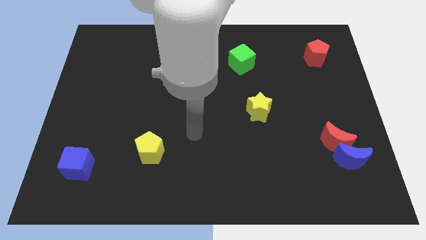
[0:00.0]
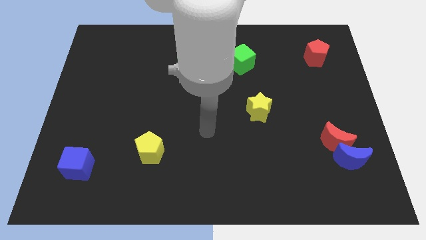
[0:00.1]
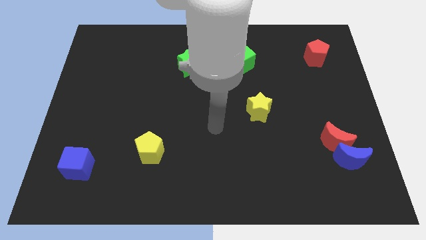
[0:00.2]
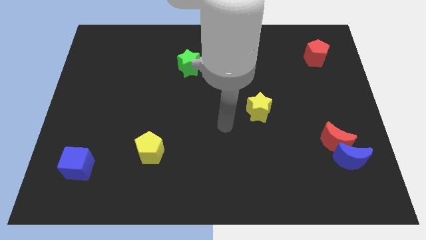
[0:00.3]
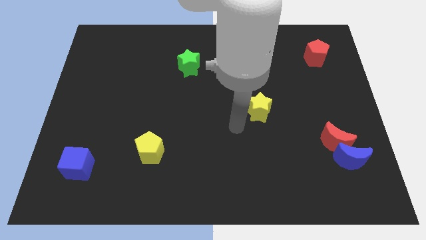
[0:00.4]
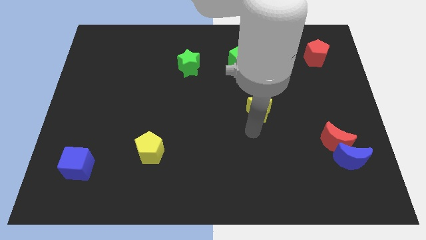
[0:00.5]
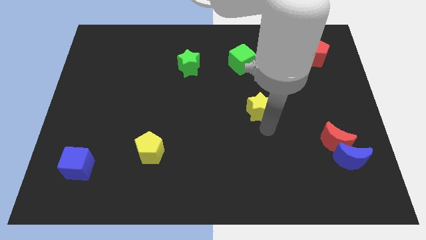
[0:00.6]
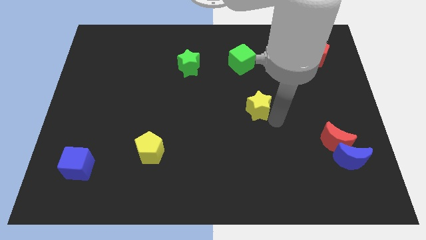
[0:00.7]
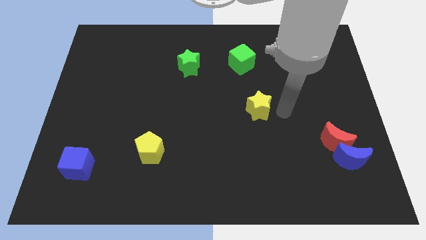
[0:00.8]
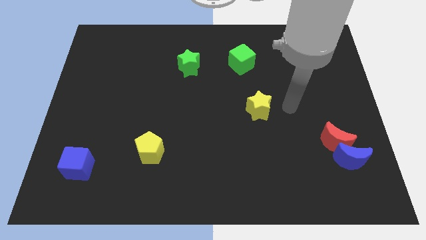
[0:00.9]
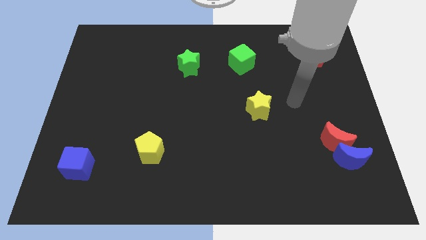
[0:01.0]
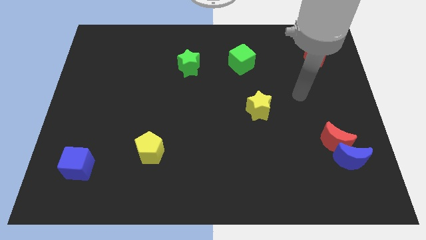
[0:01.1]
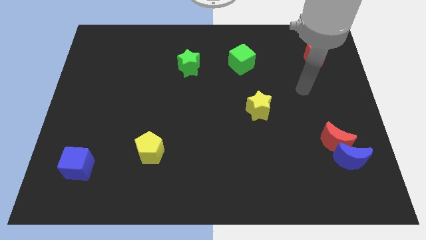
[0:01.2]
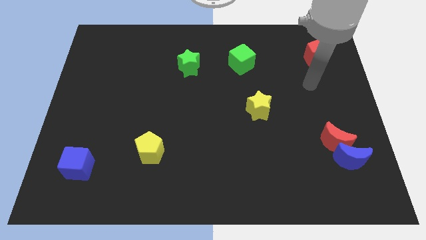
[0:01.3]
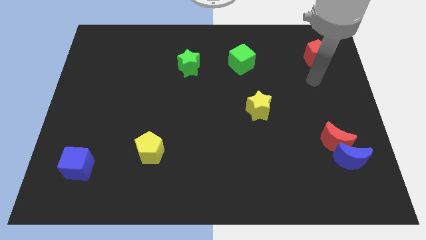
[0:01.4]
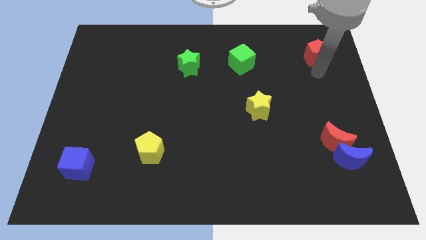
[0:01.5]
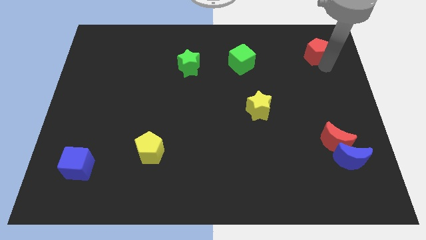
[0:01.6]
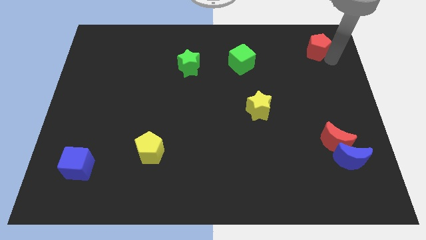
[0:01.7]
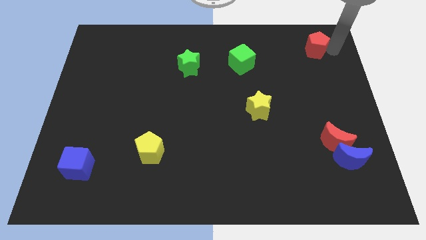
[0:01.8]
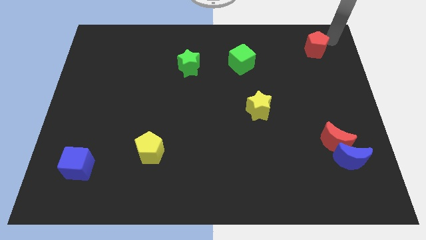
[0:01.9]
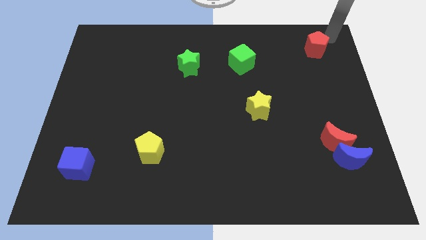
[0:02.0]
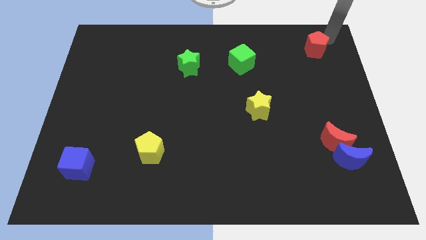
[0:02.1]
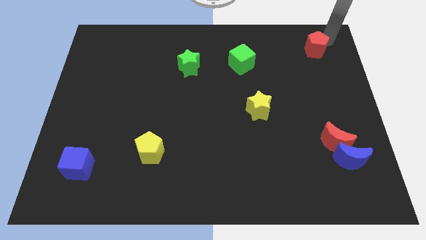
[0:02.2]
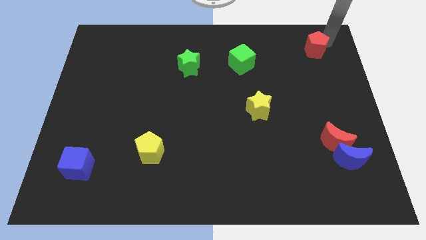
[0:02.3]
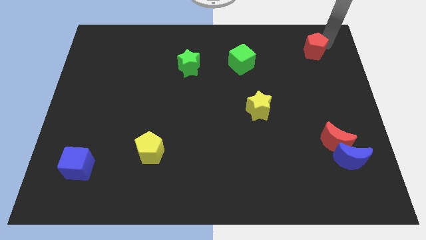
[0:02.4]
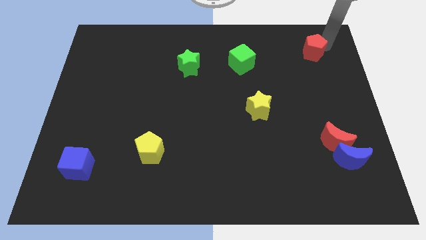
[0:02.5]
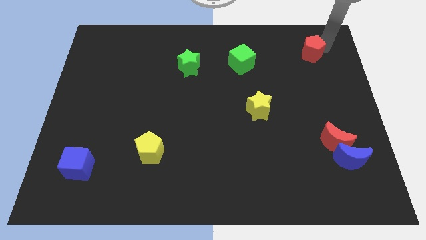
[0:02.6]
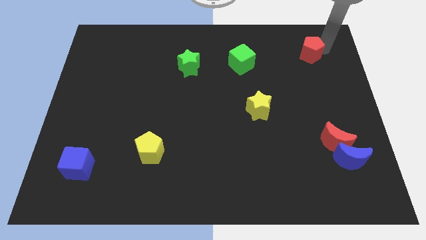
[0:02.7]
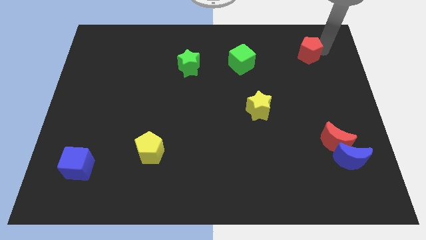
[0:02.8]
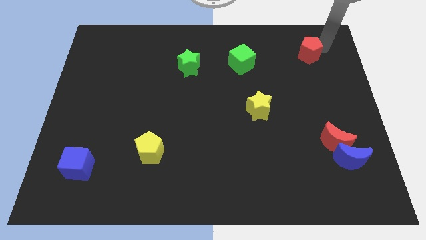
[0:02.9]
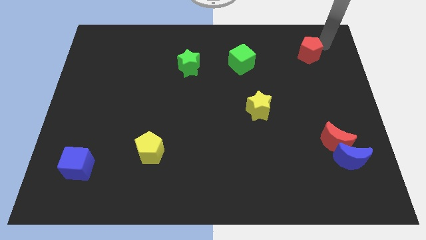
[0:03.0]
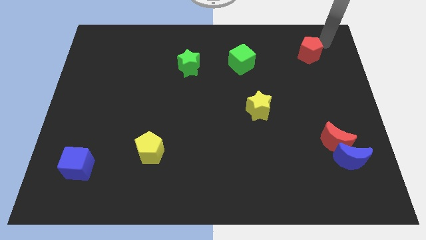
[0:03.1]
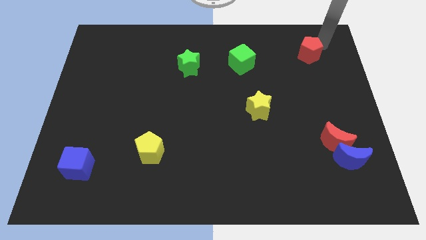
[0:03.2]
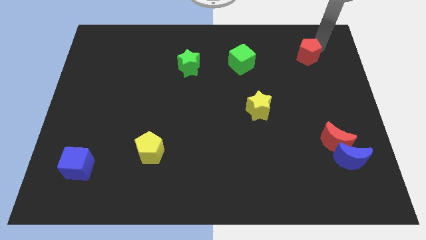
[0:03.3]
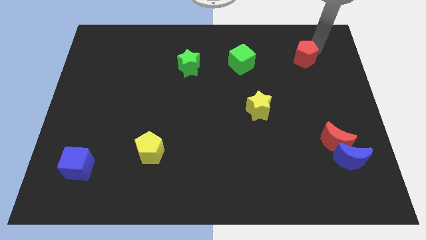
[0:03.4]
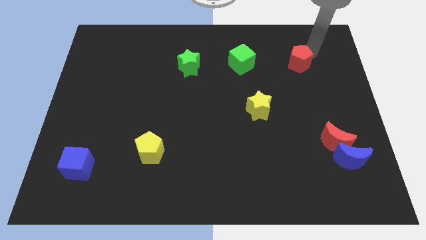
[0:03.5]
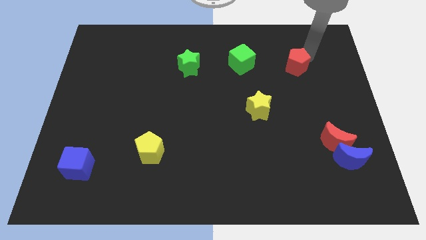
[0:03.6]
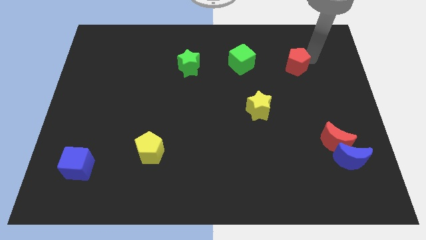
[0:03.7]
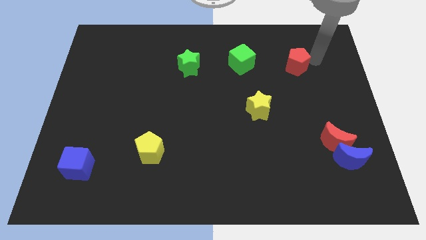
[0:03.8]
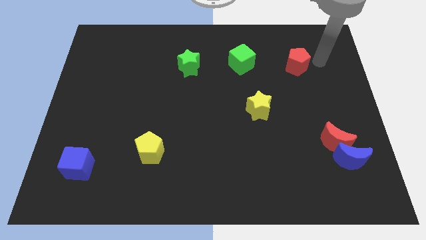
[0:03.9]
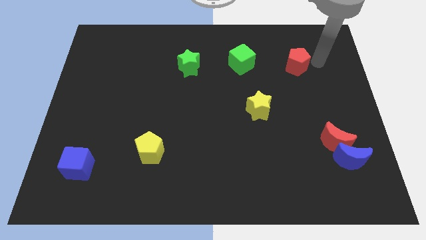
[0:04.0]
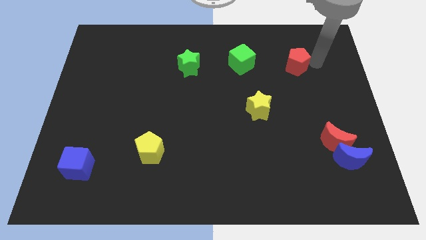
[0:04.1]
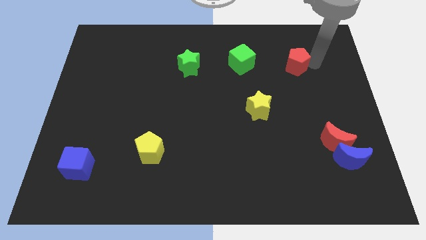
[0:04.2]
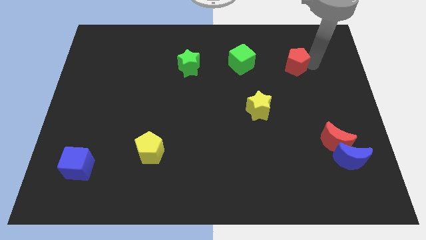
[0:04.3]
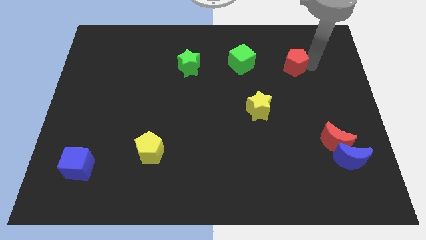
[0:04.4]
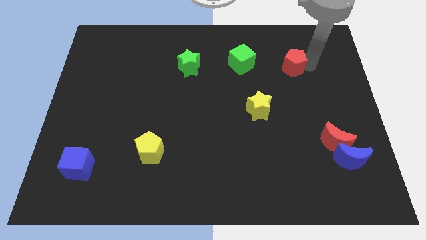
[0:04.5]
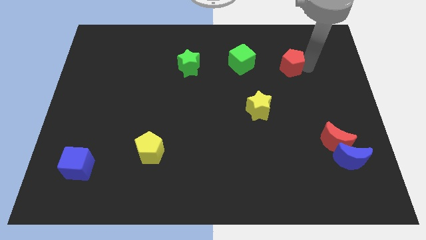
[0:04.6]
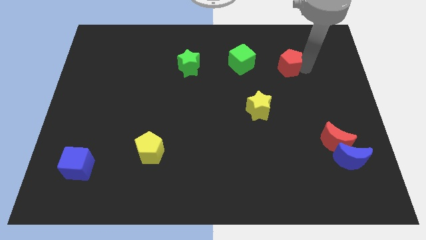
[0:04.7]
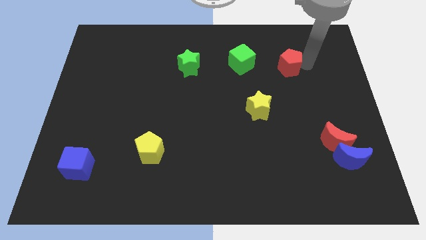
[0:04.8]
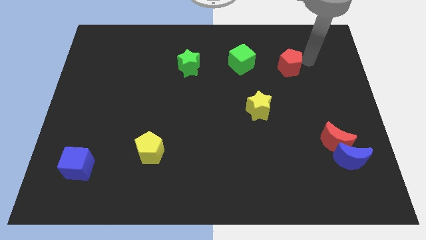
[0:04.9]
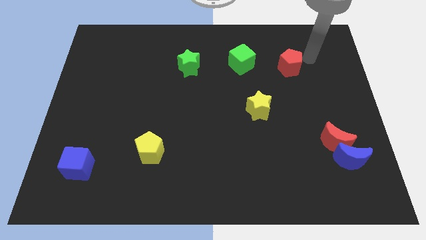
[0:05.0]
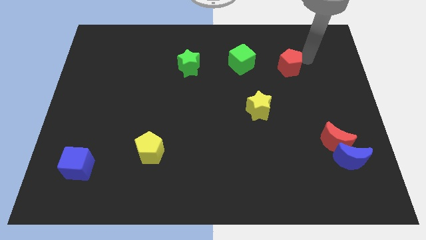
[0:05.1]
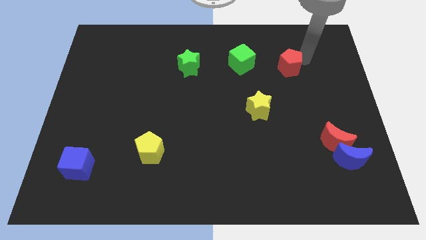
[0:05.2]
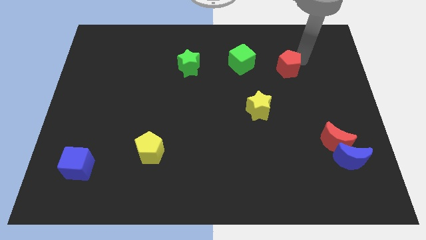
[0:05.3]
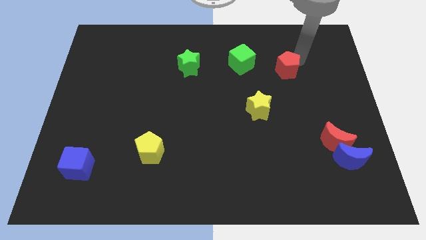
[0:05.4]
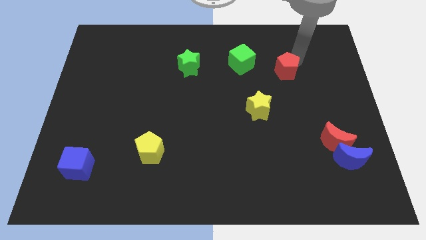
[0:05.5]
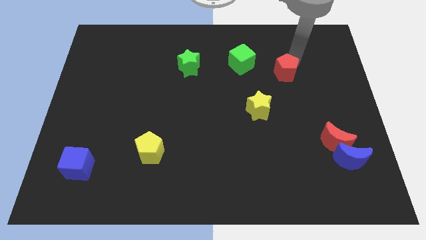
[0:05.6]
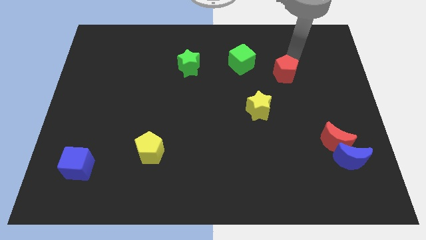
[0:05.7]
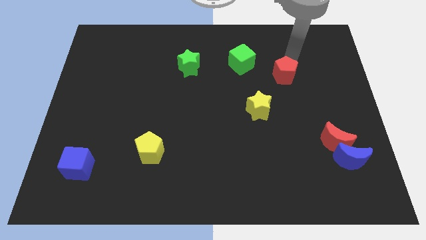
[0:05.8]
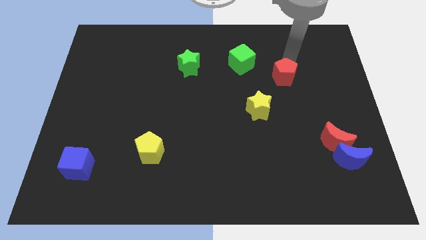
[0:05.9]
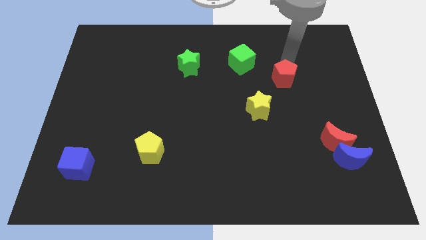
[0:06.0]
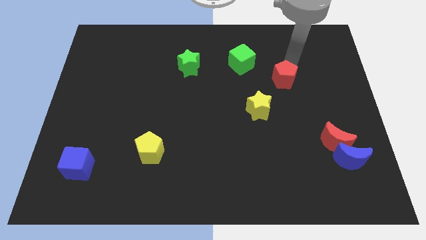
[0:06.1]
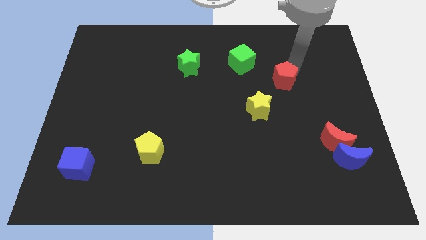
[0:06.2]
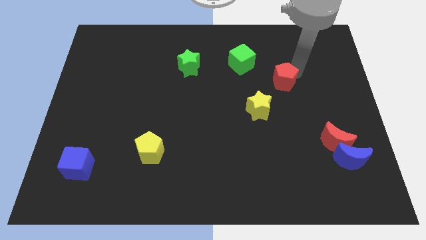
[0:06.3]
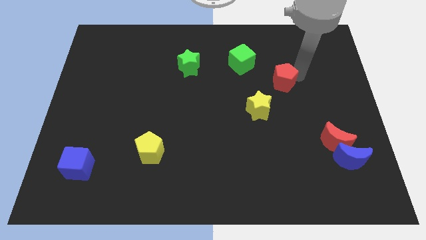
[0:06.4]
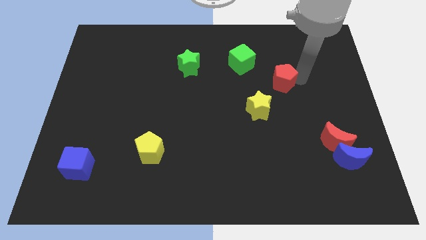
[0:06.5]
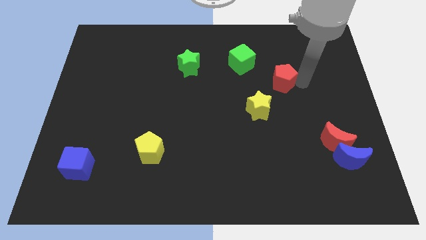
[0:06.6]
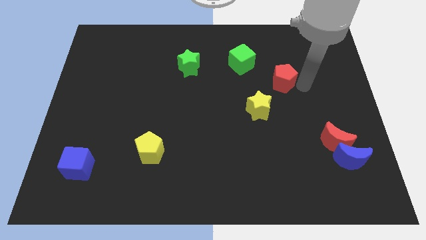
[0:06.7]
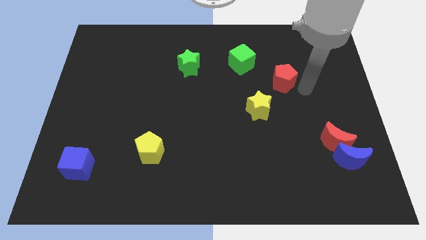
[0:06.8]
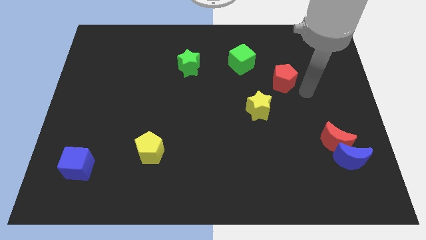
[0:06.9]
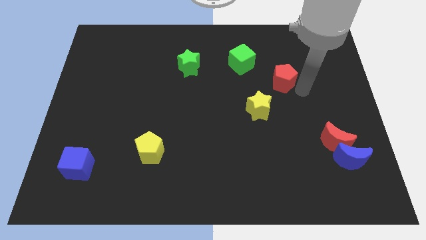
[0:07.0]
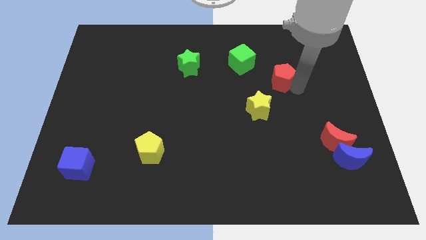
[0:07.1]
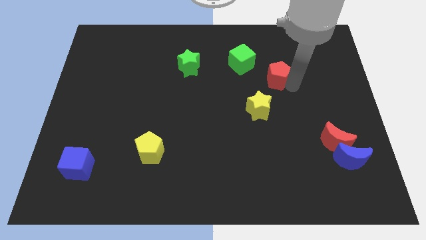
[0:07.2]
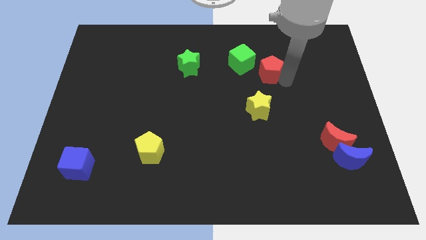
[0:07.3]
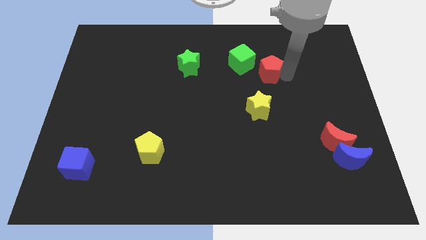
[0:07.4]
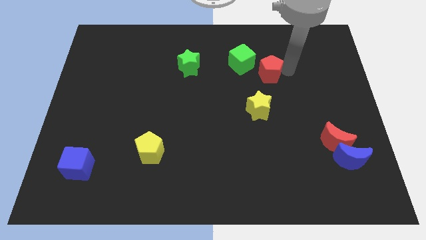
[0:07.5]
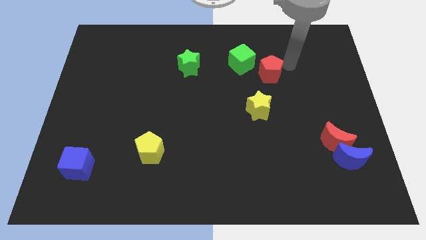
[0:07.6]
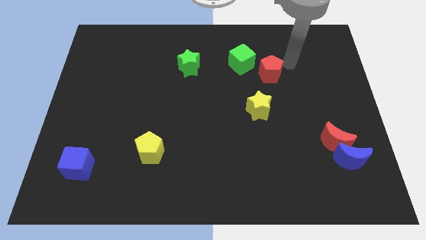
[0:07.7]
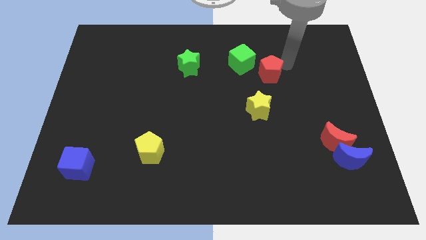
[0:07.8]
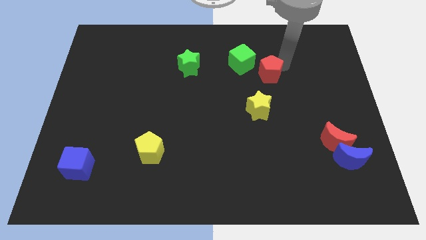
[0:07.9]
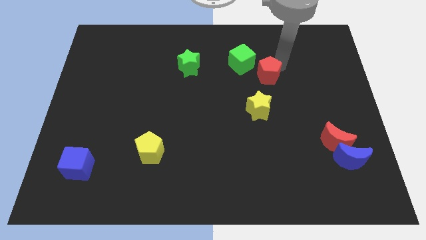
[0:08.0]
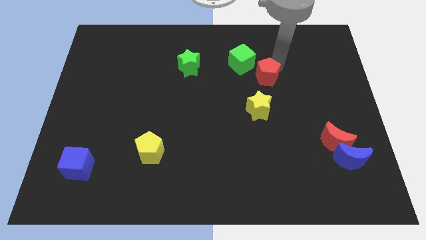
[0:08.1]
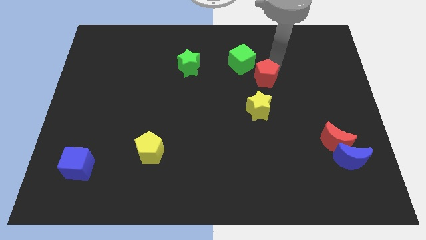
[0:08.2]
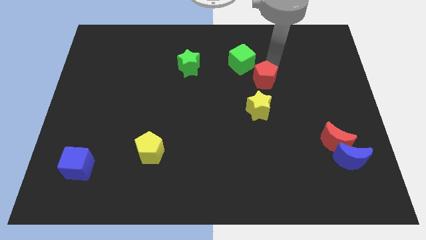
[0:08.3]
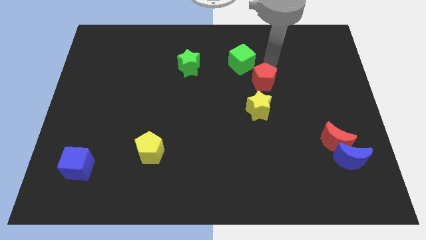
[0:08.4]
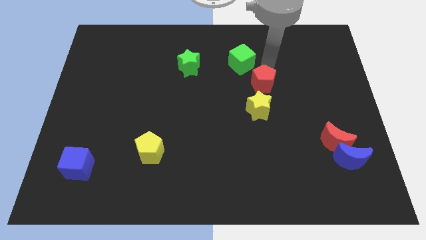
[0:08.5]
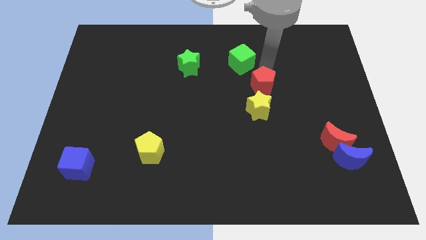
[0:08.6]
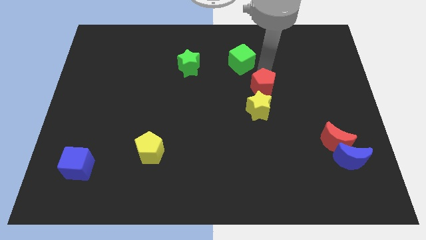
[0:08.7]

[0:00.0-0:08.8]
slide the red pentagon to the middle
